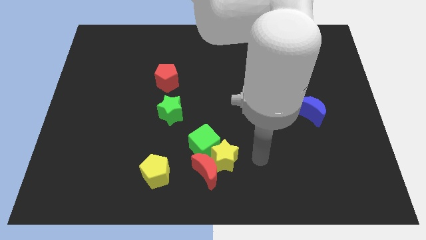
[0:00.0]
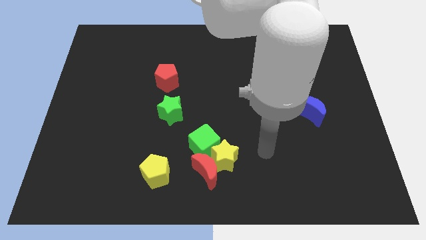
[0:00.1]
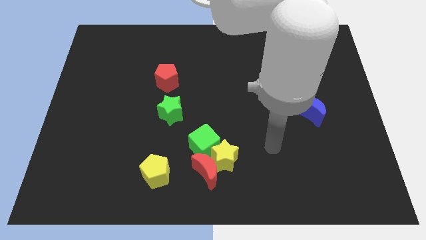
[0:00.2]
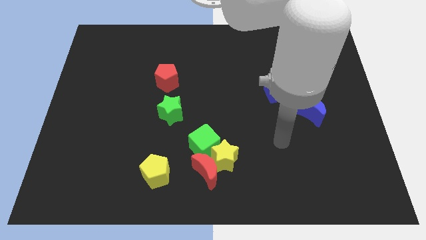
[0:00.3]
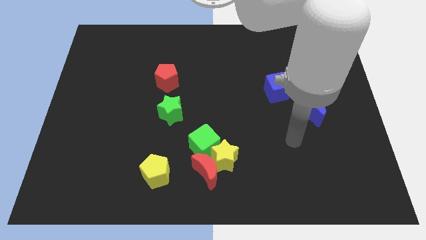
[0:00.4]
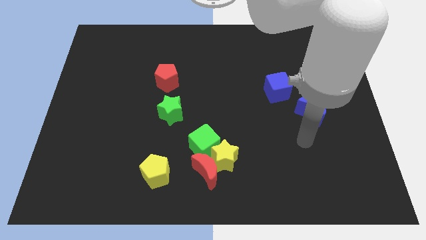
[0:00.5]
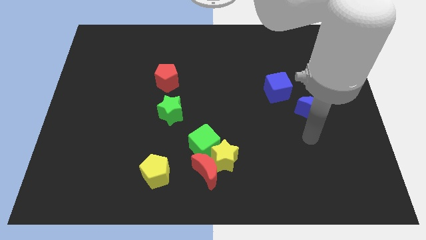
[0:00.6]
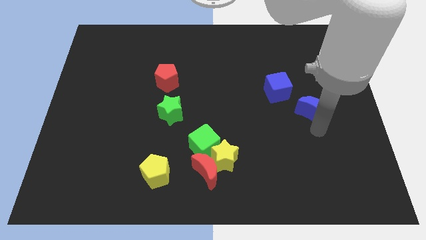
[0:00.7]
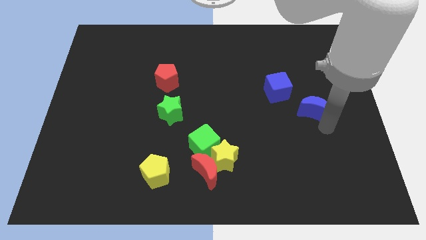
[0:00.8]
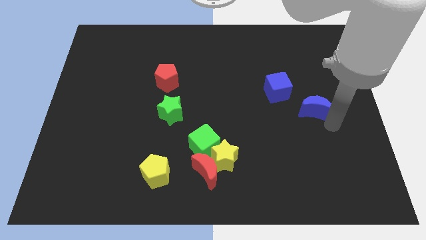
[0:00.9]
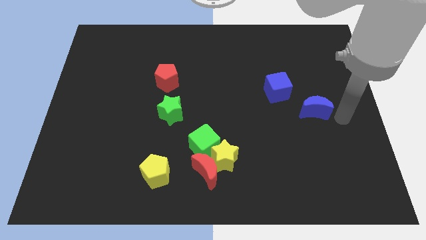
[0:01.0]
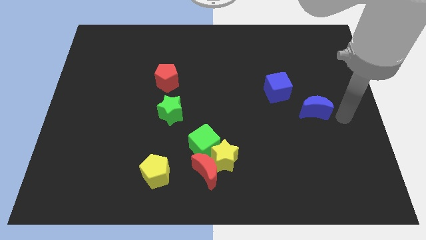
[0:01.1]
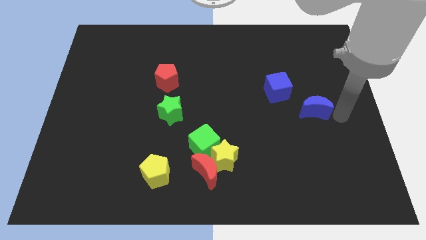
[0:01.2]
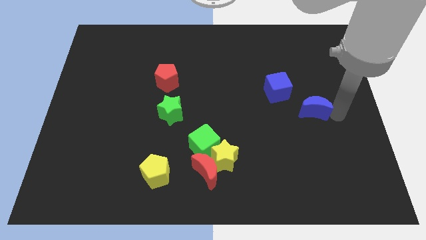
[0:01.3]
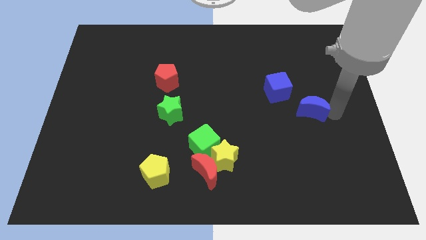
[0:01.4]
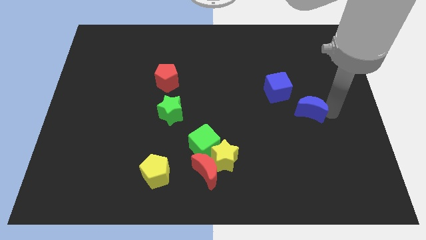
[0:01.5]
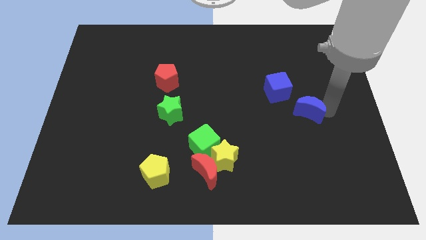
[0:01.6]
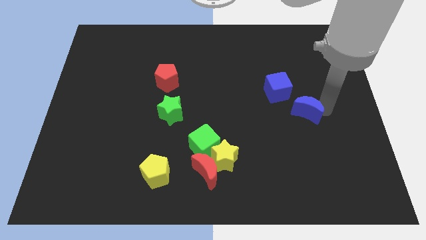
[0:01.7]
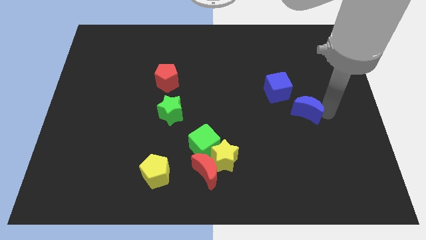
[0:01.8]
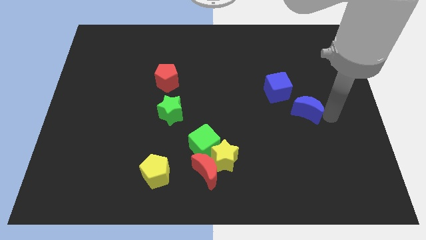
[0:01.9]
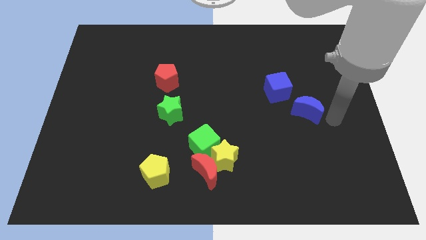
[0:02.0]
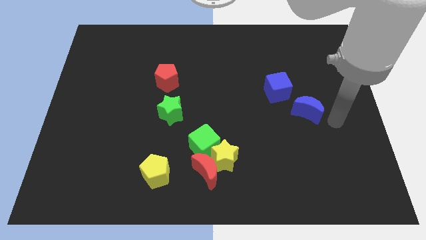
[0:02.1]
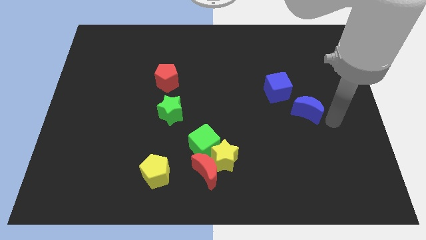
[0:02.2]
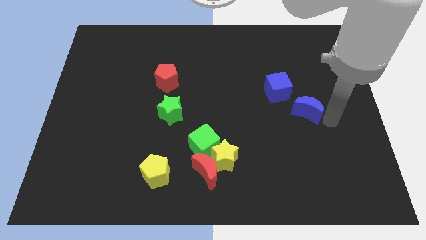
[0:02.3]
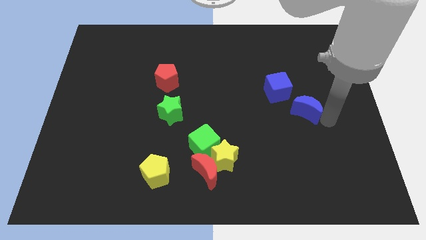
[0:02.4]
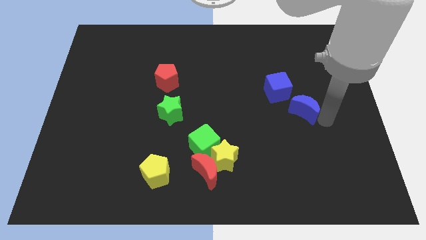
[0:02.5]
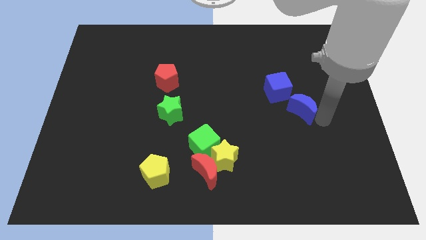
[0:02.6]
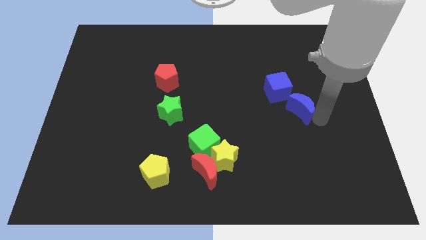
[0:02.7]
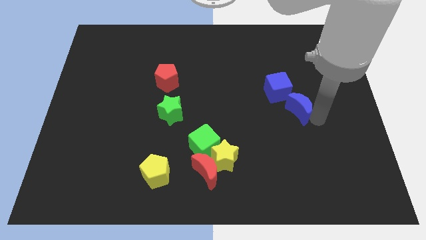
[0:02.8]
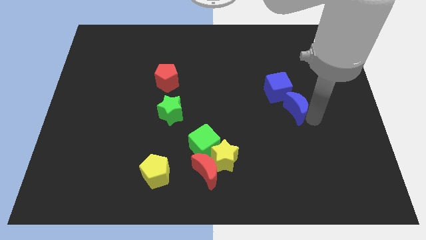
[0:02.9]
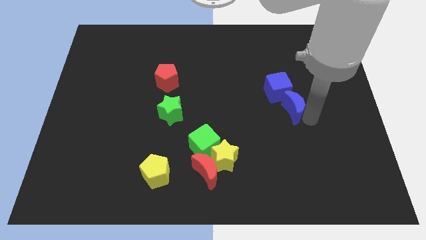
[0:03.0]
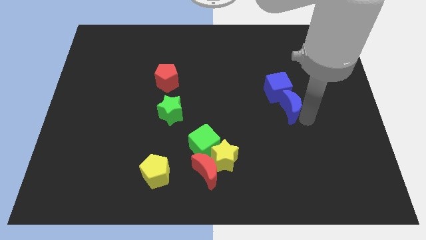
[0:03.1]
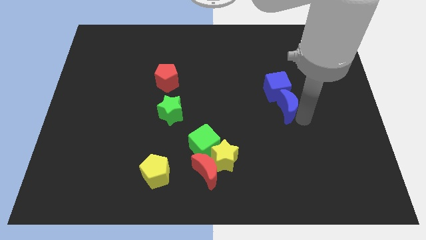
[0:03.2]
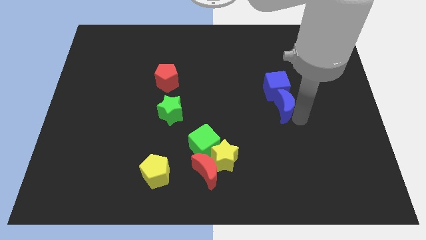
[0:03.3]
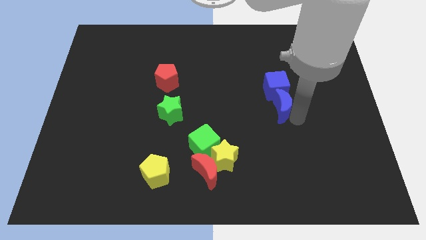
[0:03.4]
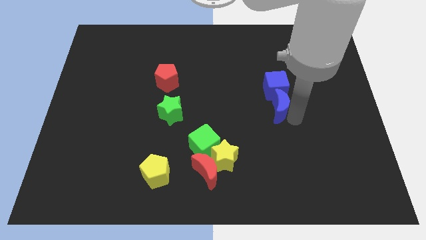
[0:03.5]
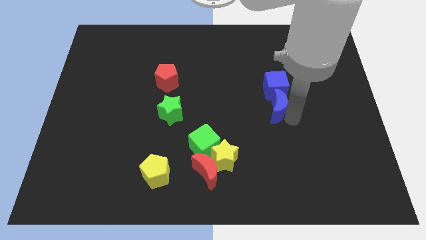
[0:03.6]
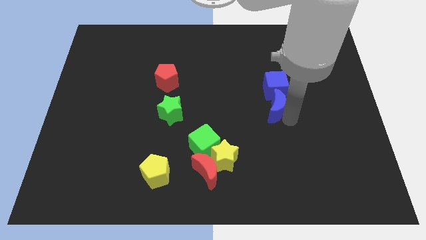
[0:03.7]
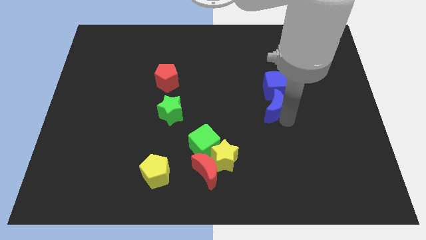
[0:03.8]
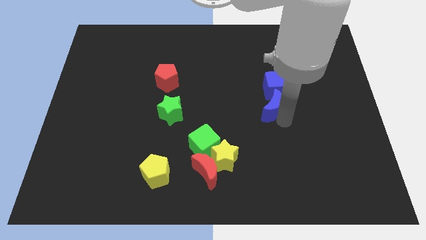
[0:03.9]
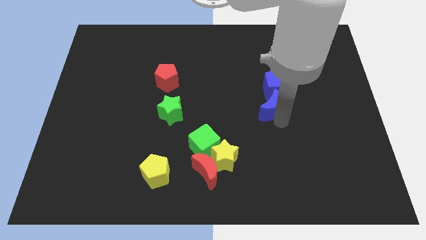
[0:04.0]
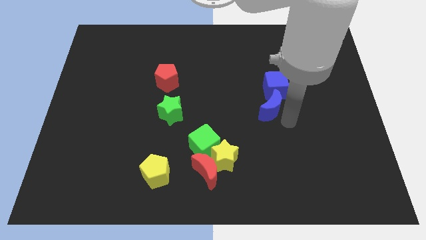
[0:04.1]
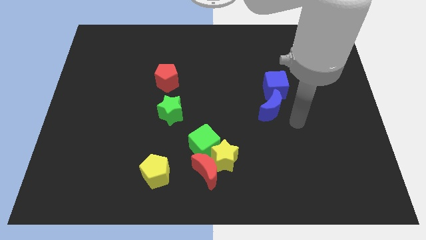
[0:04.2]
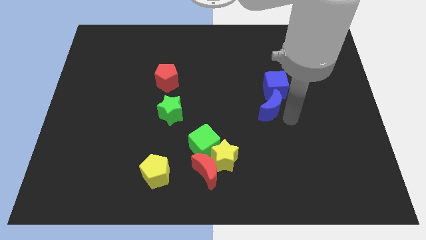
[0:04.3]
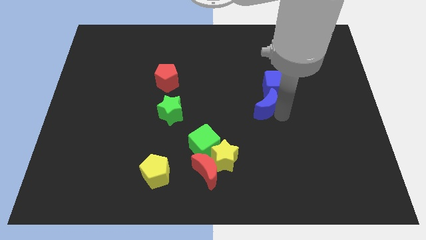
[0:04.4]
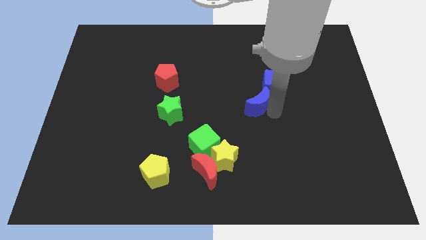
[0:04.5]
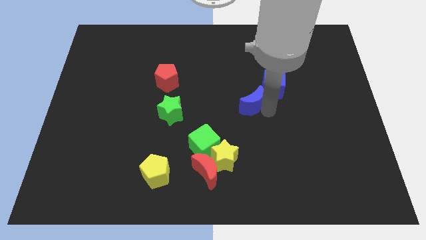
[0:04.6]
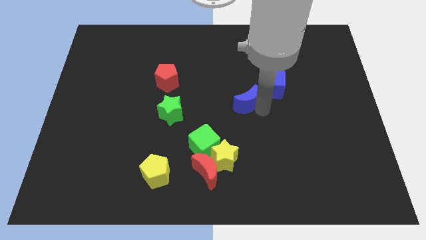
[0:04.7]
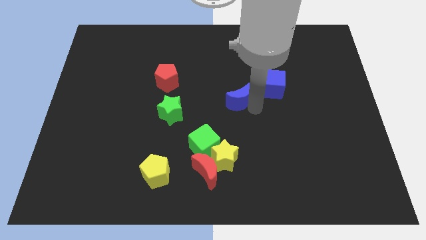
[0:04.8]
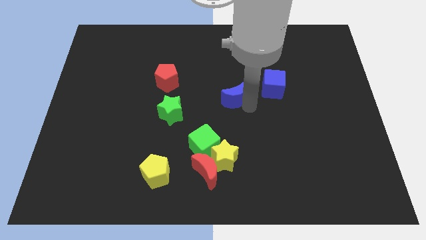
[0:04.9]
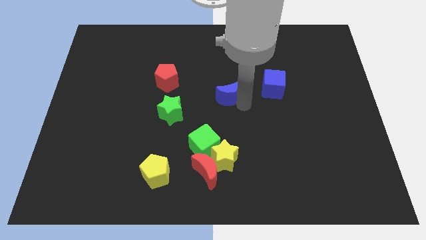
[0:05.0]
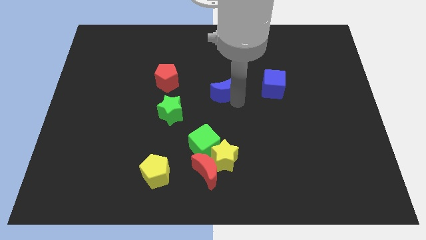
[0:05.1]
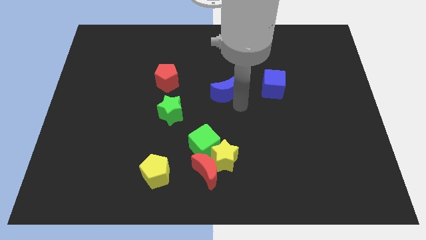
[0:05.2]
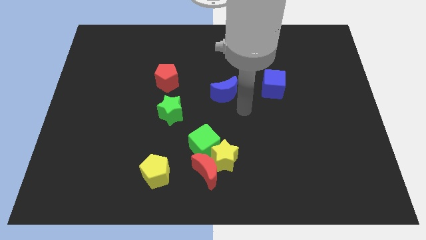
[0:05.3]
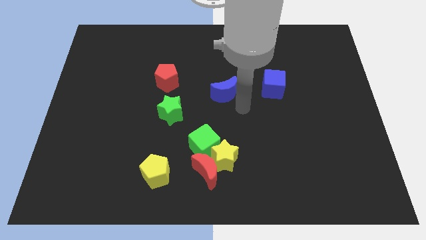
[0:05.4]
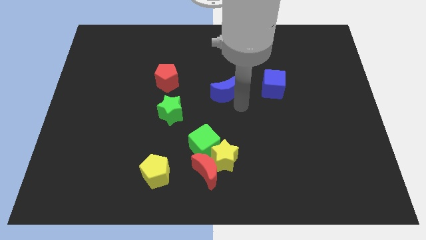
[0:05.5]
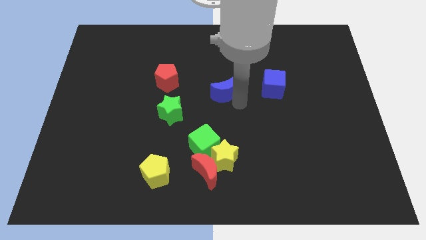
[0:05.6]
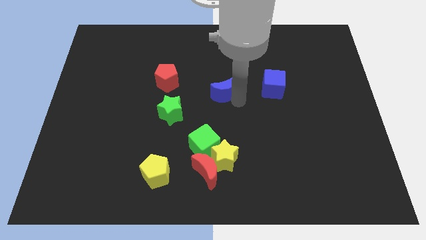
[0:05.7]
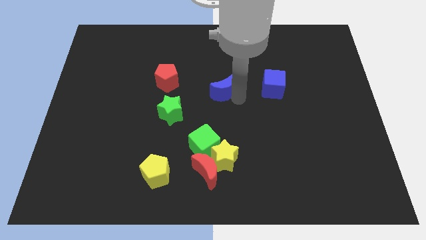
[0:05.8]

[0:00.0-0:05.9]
push the blue moon to the right of the red pentagon

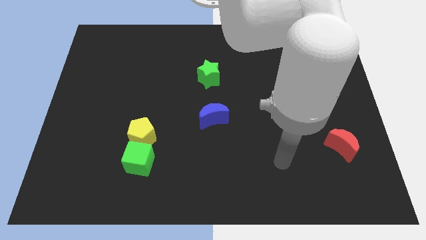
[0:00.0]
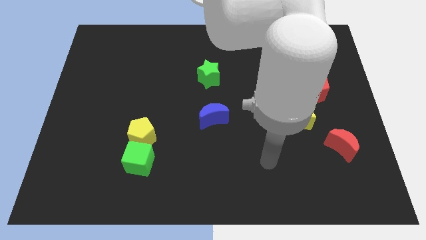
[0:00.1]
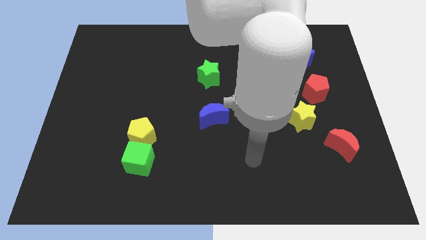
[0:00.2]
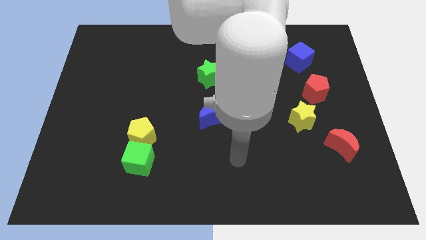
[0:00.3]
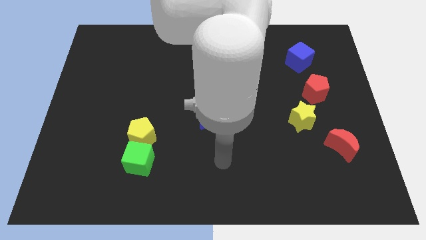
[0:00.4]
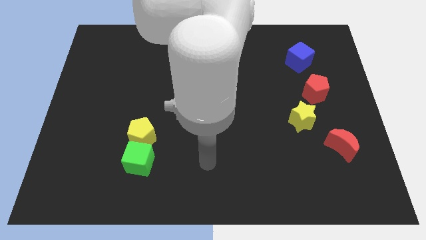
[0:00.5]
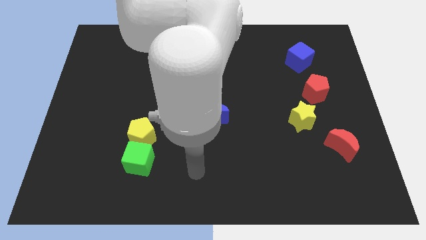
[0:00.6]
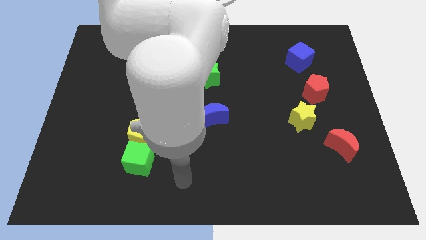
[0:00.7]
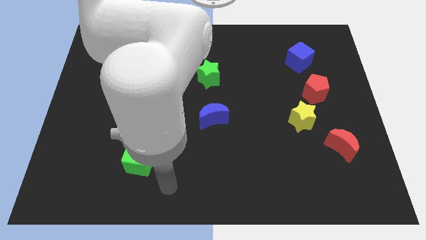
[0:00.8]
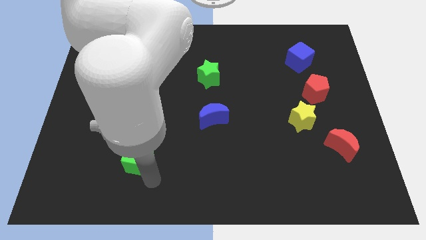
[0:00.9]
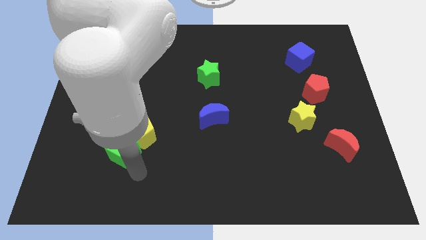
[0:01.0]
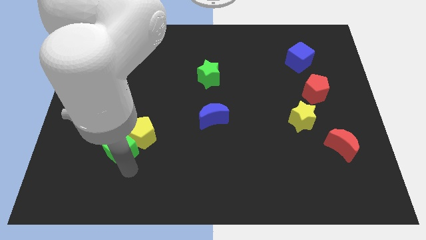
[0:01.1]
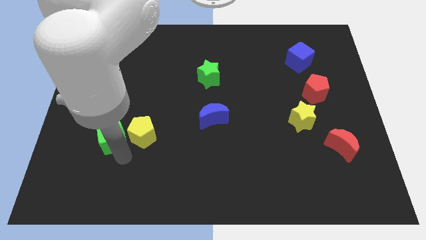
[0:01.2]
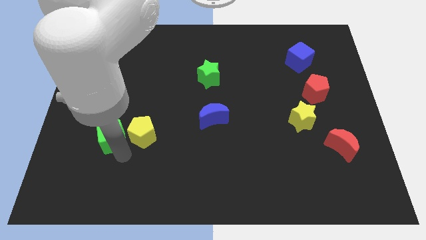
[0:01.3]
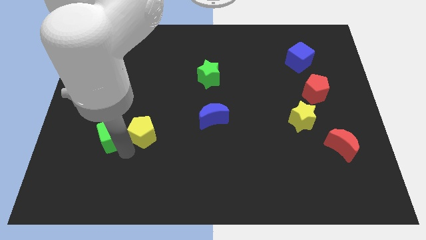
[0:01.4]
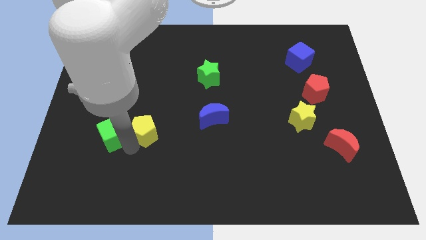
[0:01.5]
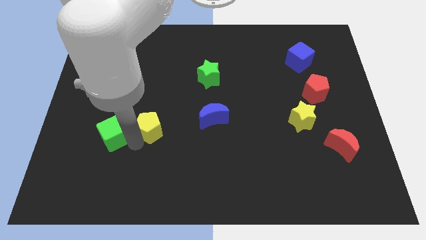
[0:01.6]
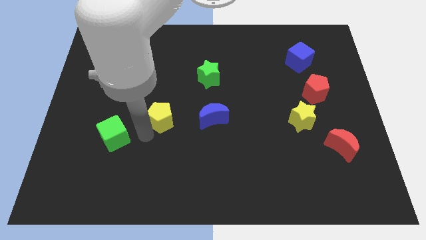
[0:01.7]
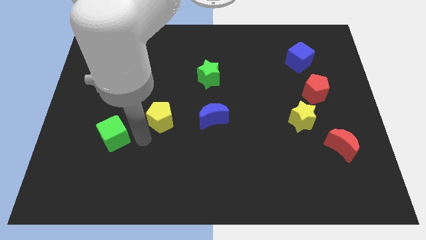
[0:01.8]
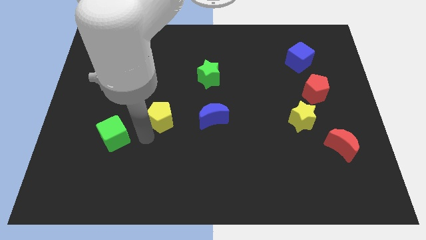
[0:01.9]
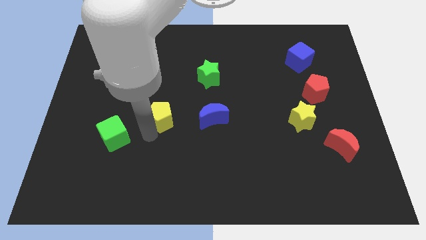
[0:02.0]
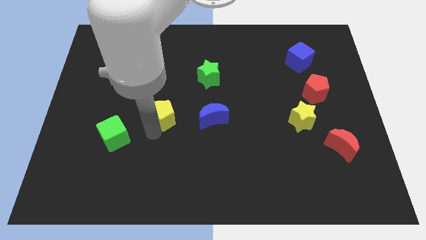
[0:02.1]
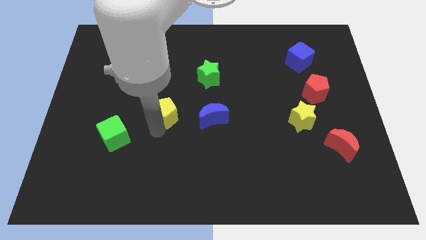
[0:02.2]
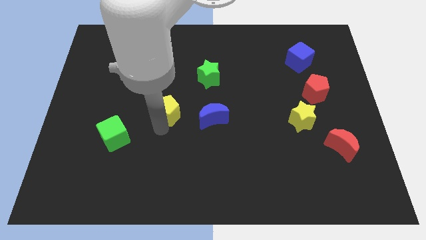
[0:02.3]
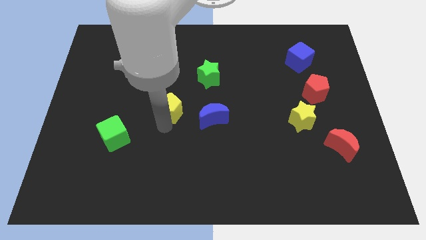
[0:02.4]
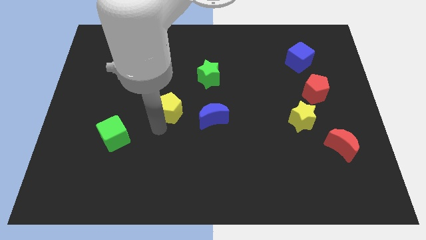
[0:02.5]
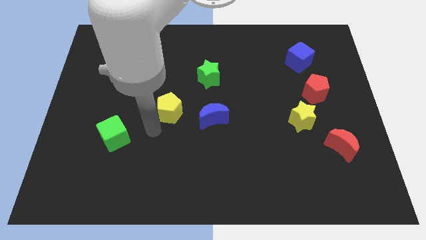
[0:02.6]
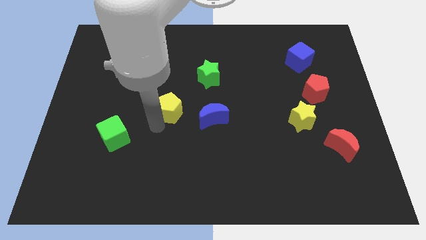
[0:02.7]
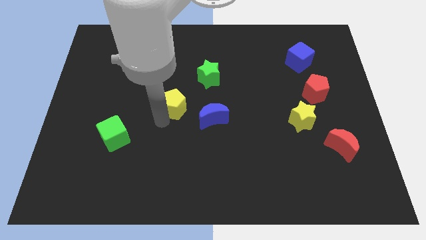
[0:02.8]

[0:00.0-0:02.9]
push the yellow pentagon to the bottom left of the green star
